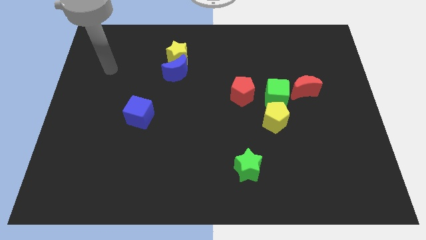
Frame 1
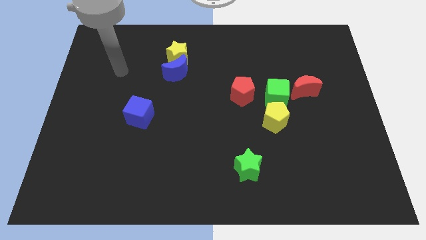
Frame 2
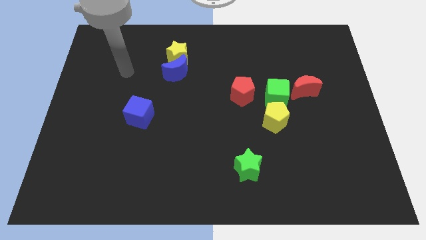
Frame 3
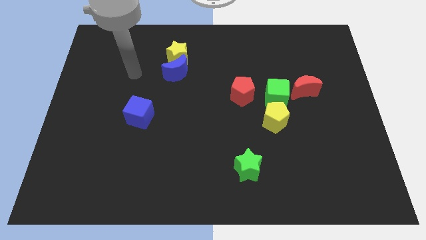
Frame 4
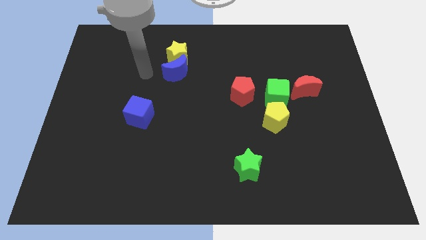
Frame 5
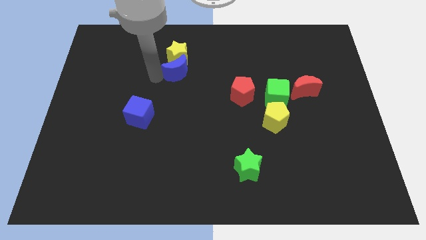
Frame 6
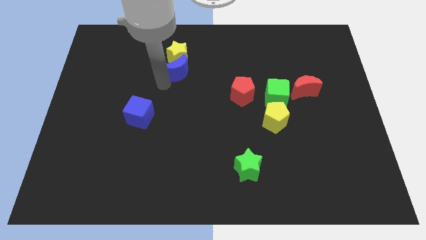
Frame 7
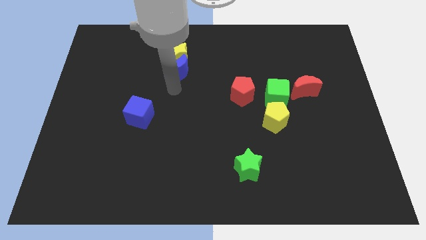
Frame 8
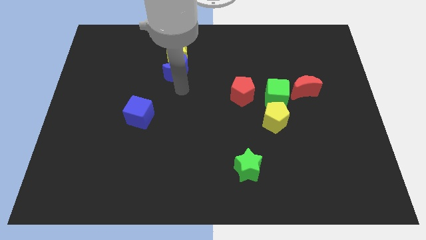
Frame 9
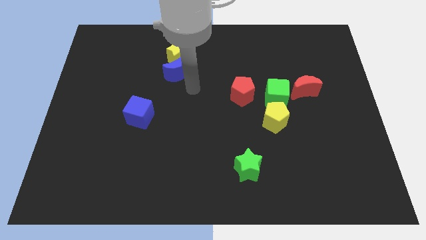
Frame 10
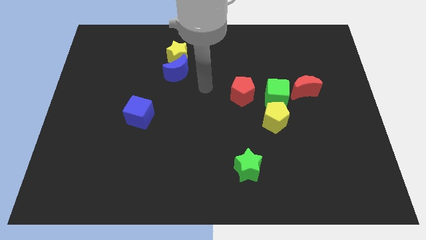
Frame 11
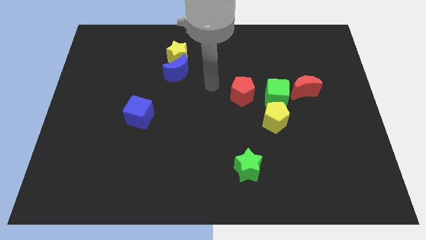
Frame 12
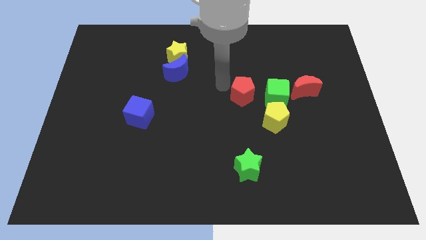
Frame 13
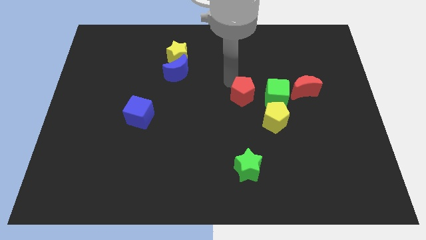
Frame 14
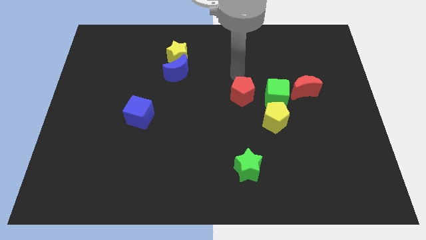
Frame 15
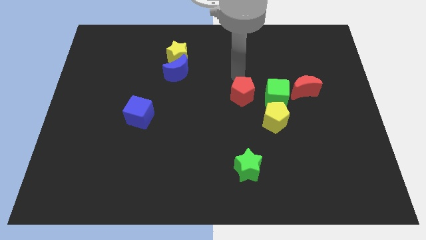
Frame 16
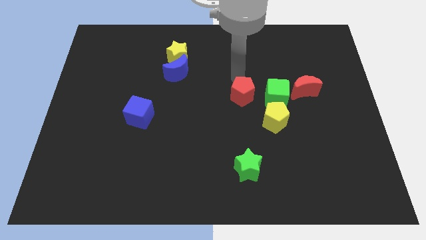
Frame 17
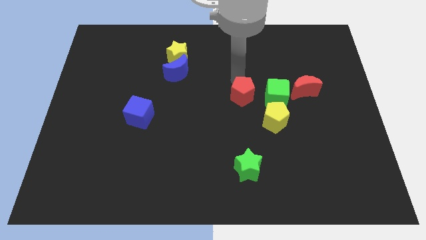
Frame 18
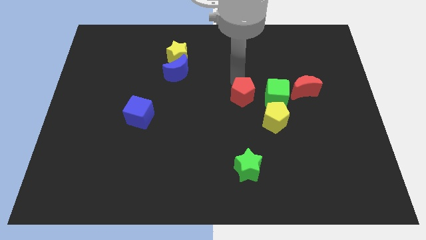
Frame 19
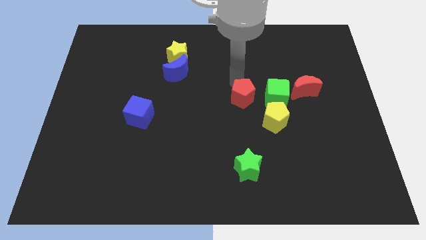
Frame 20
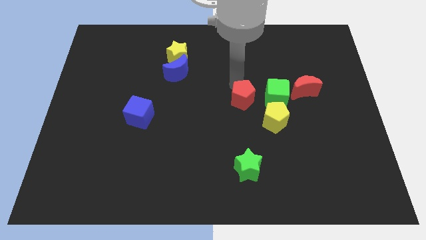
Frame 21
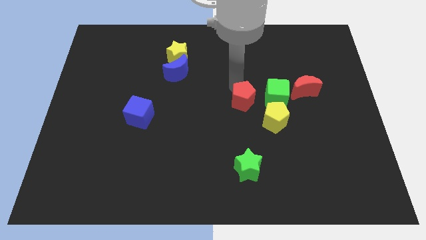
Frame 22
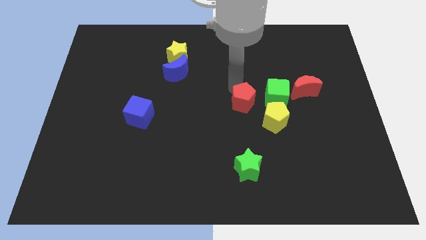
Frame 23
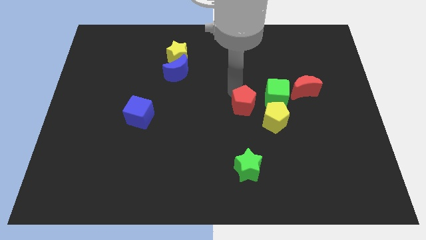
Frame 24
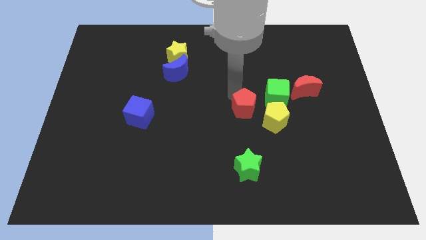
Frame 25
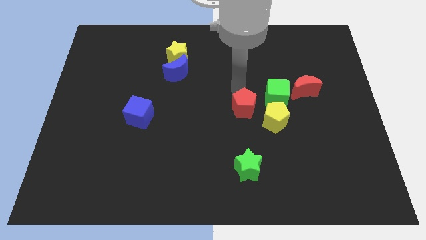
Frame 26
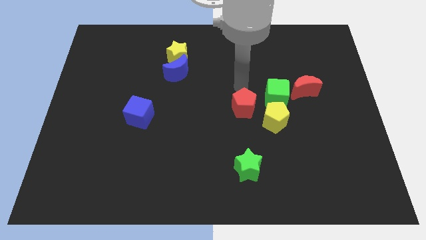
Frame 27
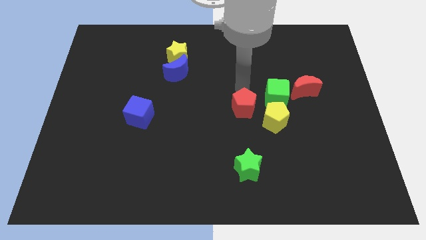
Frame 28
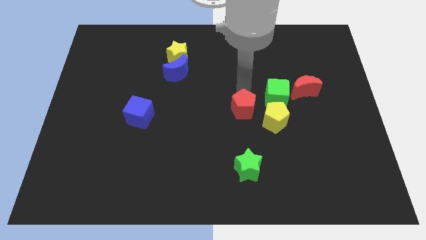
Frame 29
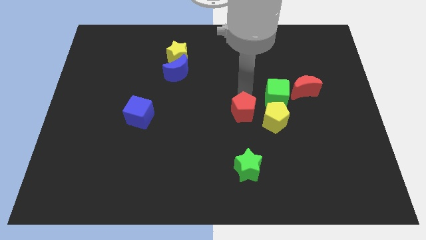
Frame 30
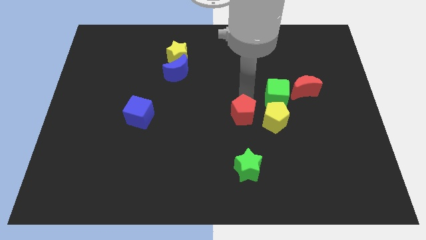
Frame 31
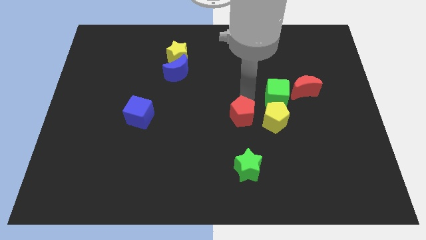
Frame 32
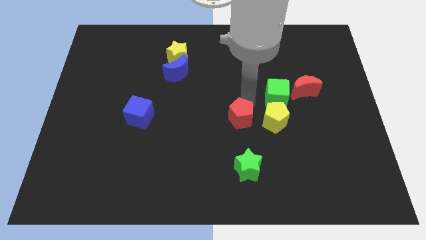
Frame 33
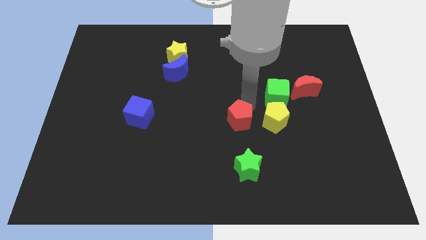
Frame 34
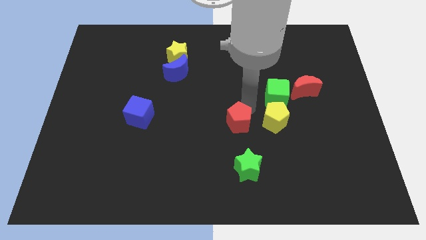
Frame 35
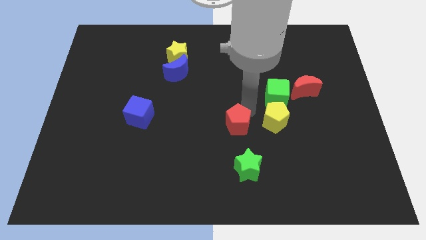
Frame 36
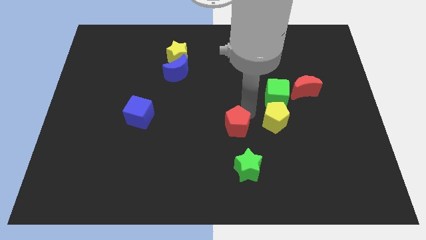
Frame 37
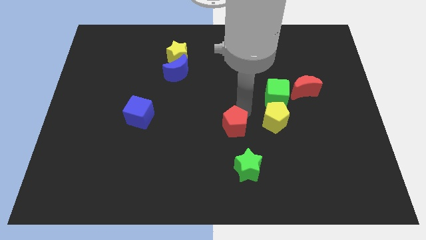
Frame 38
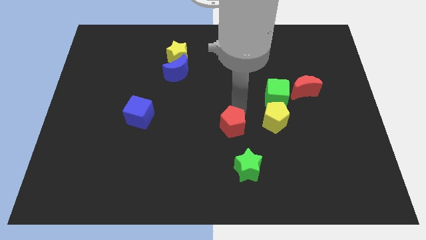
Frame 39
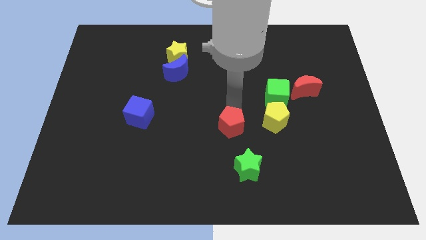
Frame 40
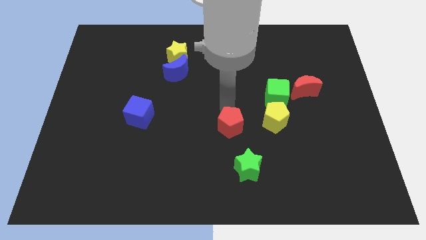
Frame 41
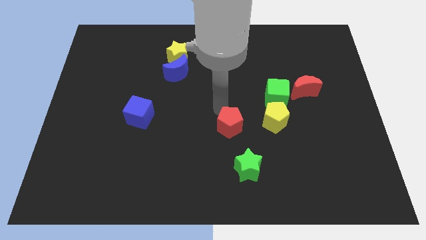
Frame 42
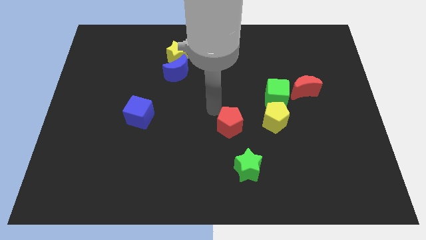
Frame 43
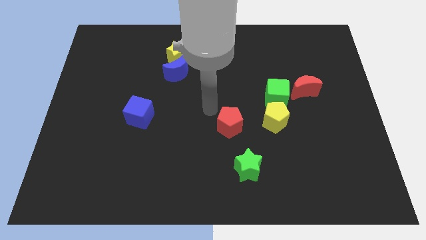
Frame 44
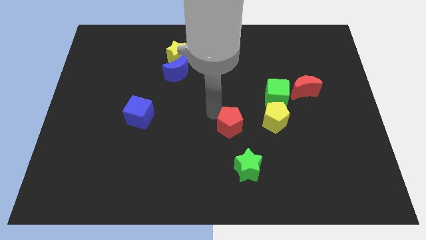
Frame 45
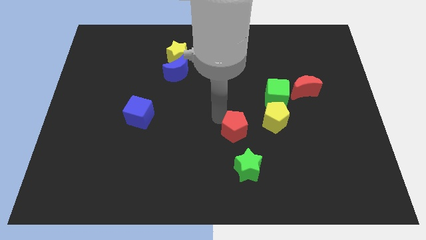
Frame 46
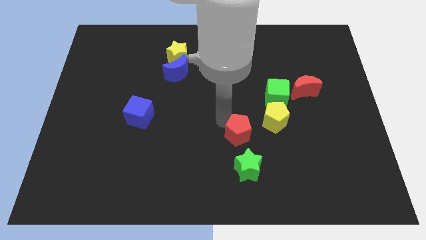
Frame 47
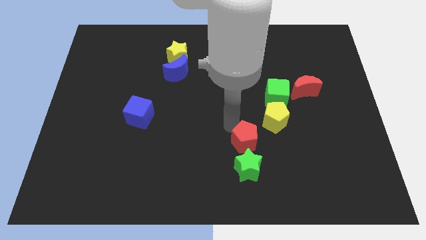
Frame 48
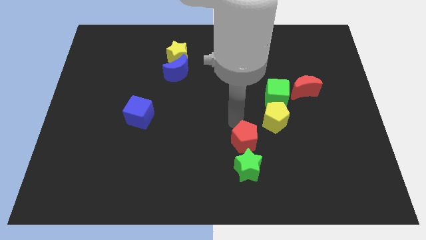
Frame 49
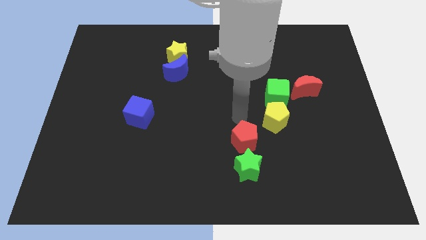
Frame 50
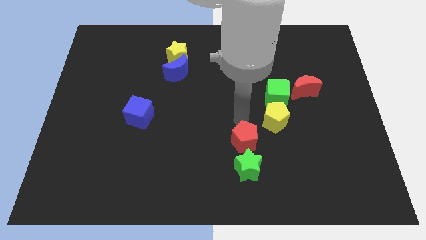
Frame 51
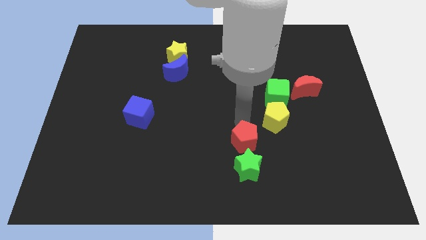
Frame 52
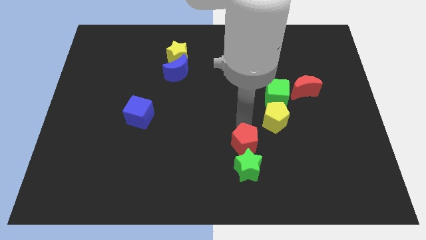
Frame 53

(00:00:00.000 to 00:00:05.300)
put the red pentagon towards the green star

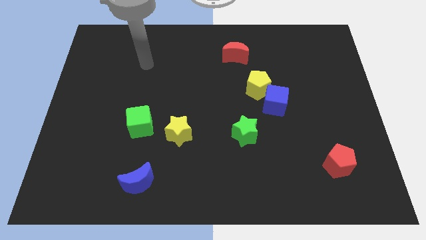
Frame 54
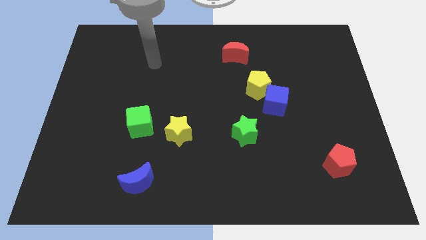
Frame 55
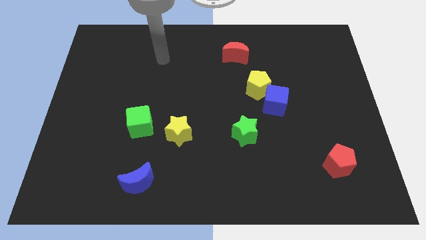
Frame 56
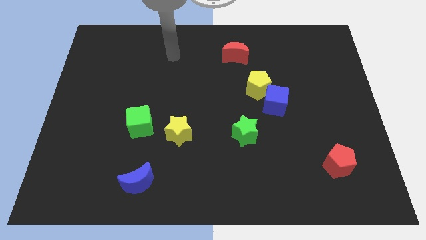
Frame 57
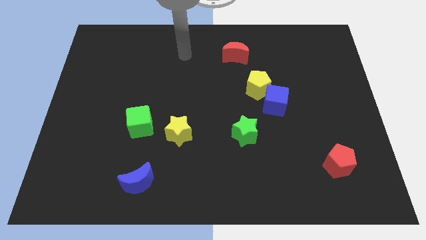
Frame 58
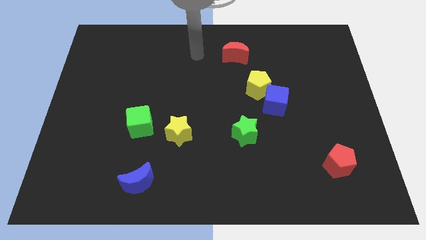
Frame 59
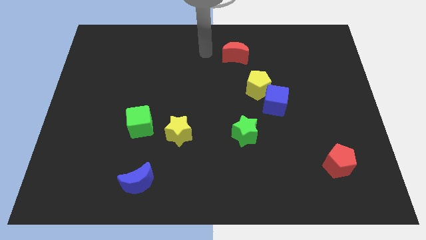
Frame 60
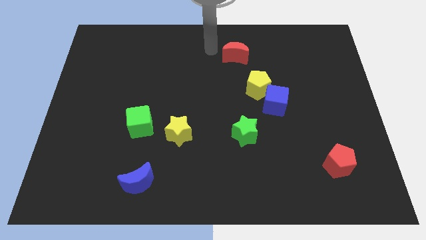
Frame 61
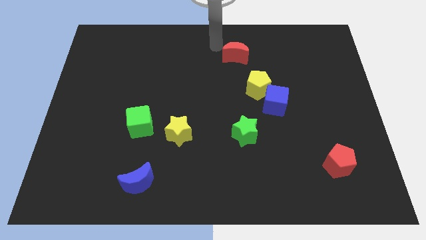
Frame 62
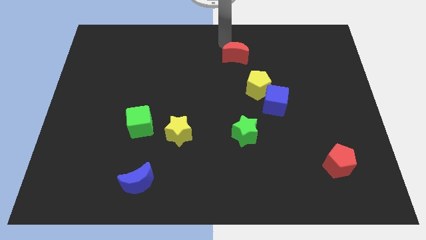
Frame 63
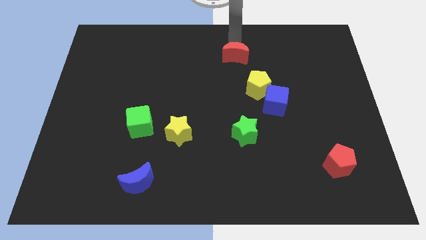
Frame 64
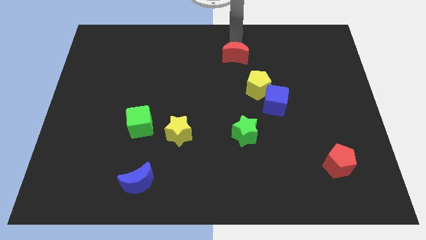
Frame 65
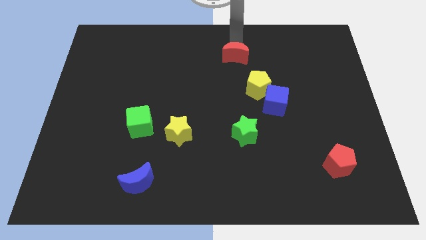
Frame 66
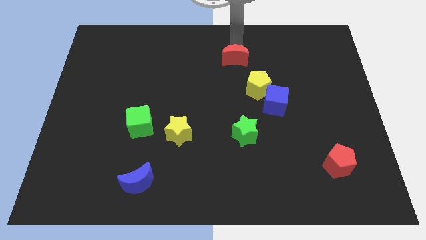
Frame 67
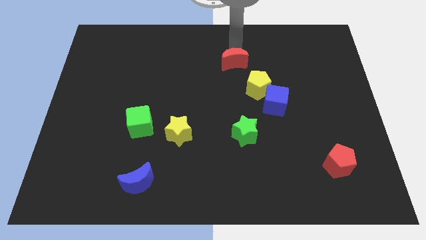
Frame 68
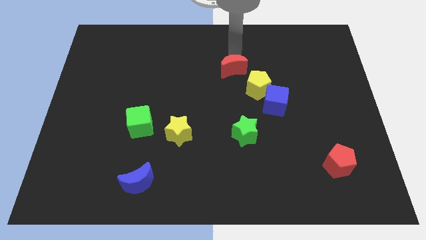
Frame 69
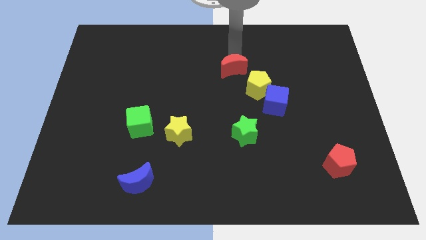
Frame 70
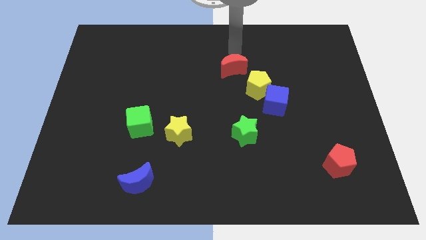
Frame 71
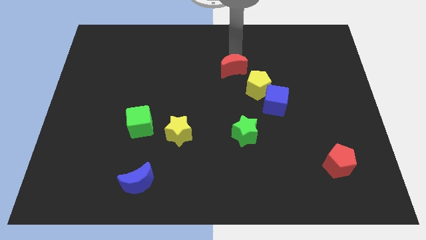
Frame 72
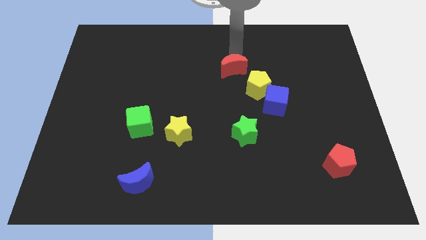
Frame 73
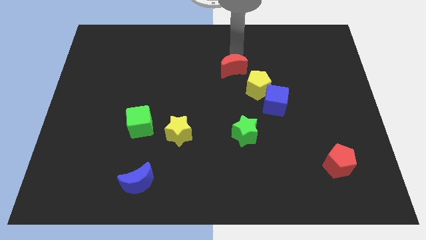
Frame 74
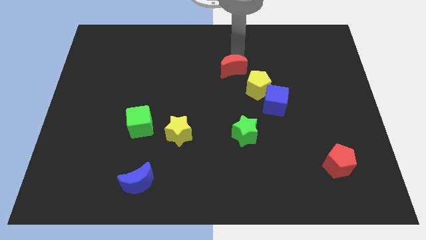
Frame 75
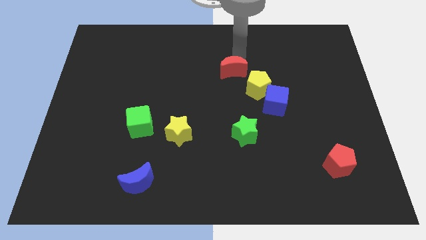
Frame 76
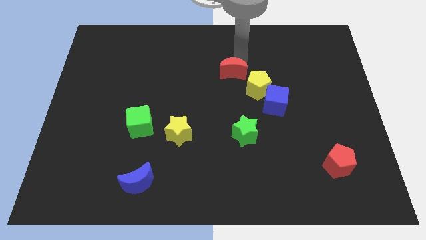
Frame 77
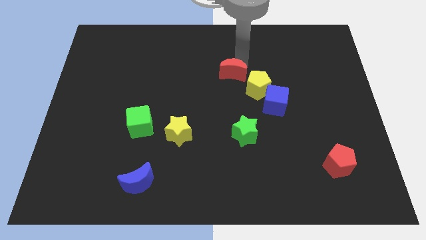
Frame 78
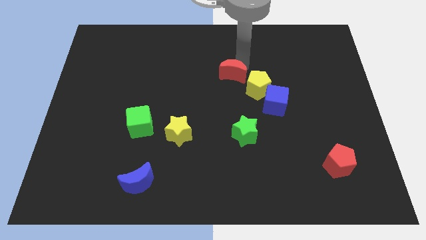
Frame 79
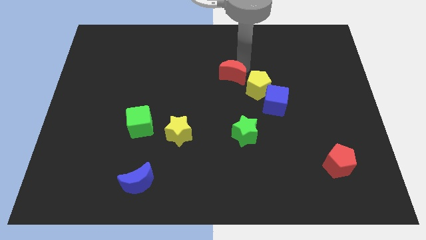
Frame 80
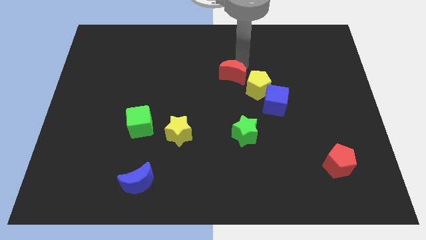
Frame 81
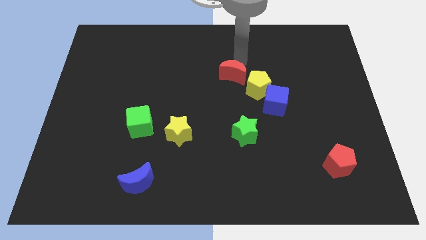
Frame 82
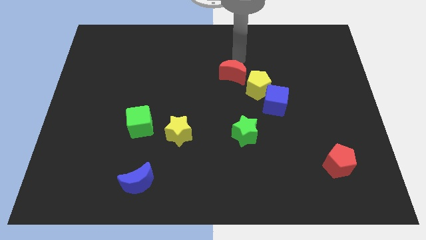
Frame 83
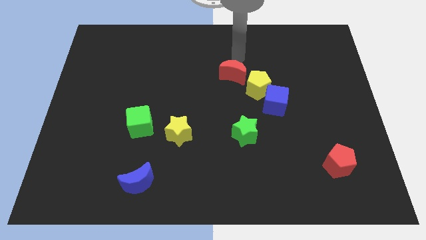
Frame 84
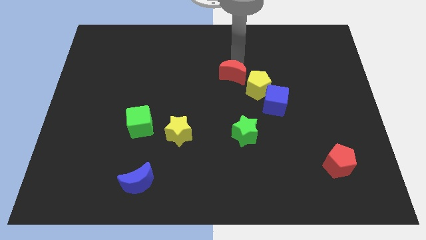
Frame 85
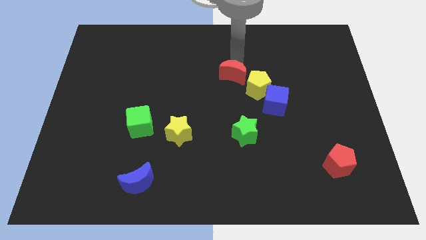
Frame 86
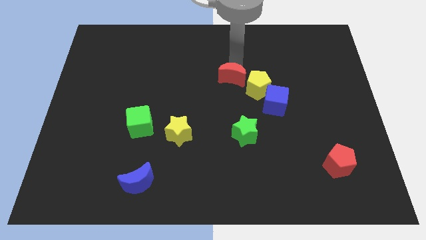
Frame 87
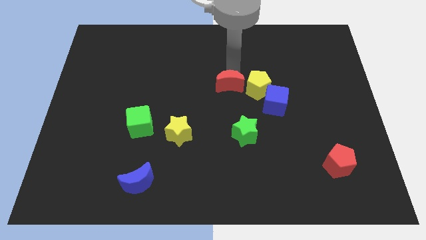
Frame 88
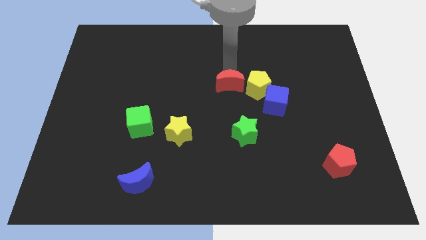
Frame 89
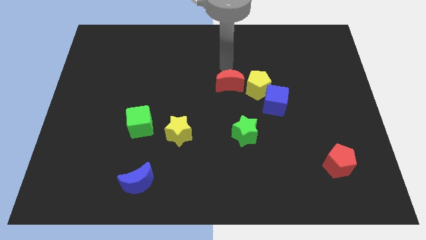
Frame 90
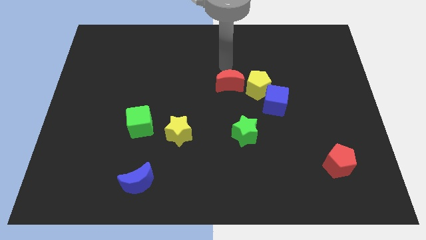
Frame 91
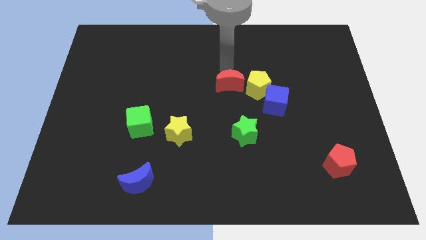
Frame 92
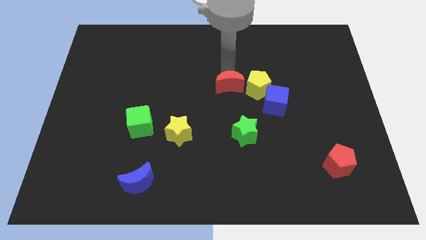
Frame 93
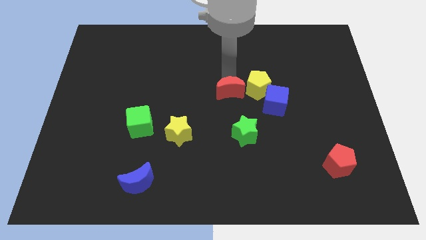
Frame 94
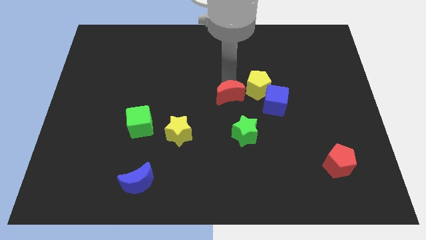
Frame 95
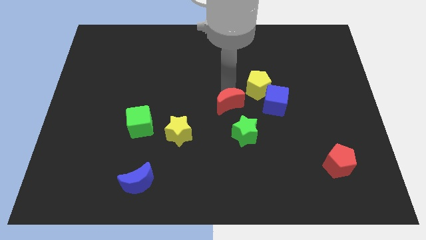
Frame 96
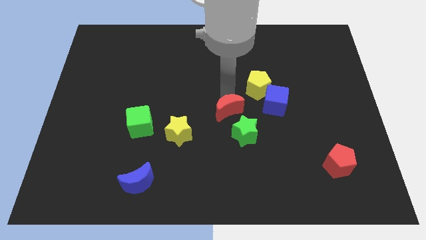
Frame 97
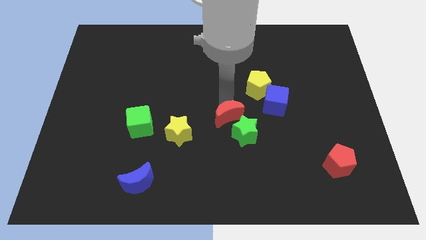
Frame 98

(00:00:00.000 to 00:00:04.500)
slide the red moon to the green star
